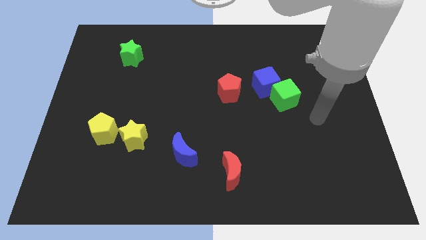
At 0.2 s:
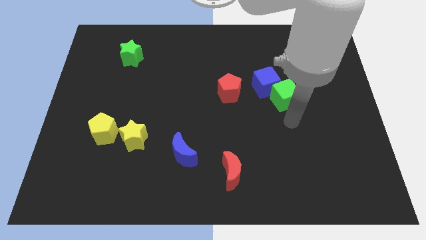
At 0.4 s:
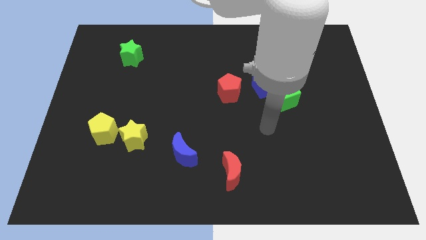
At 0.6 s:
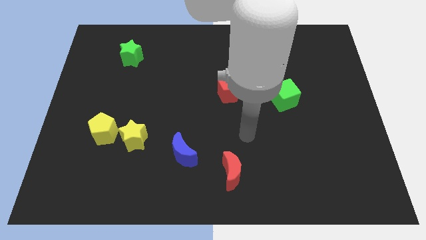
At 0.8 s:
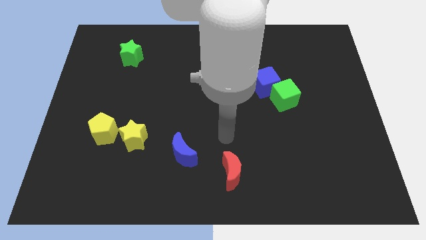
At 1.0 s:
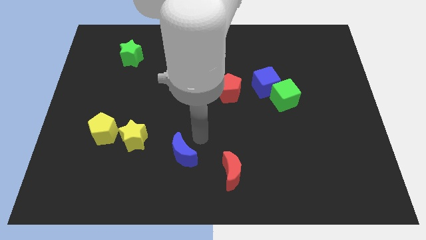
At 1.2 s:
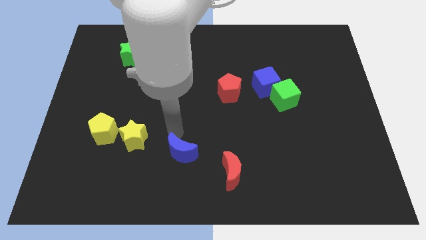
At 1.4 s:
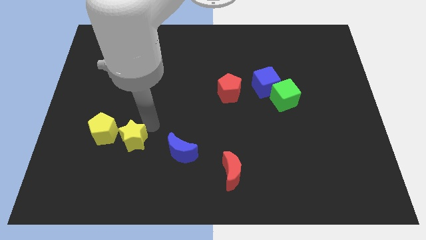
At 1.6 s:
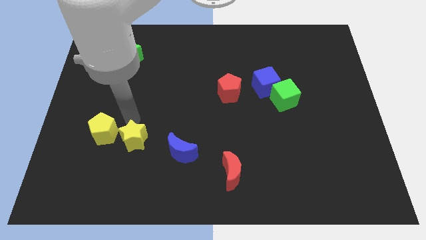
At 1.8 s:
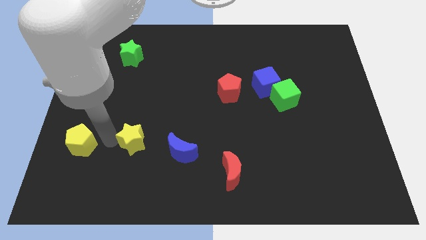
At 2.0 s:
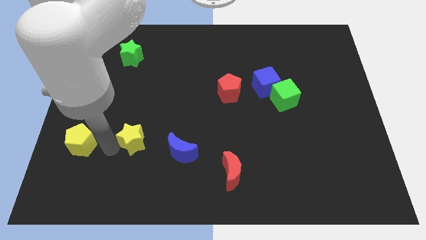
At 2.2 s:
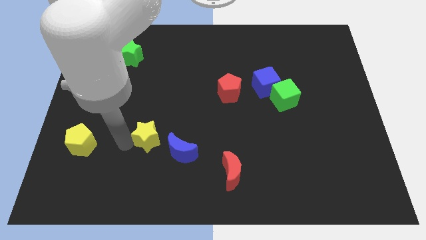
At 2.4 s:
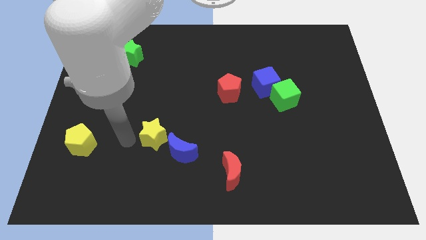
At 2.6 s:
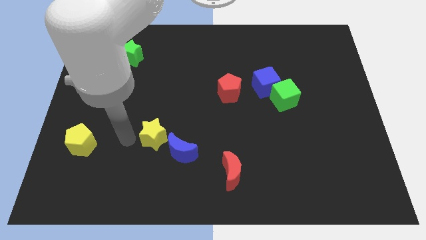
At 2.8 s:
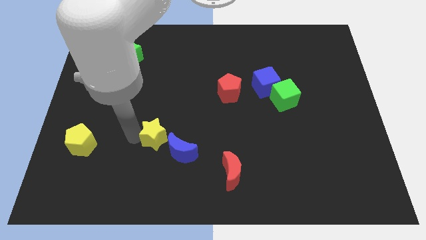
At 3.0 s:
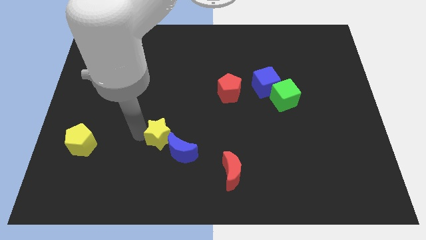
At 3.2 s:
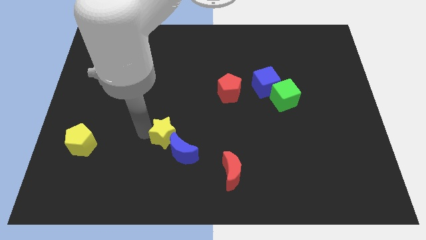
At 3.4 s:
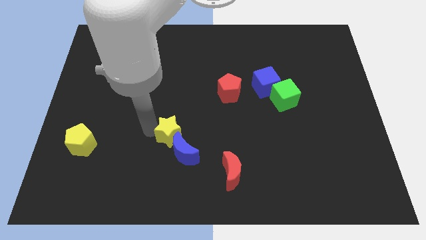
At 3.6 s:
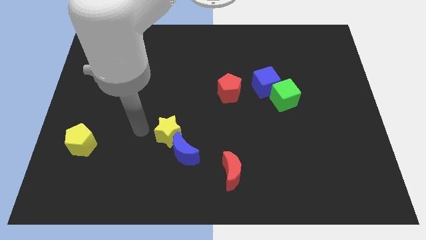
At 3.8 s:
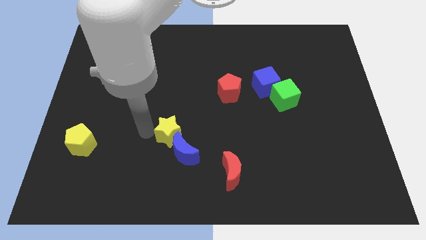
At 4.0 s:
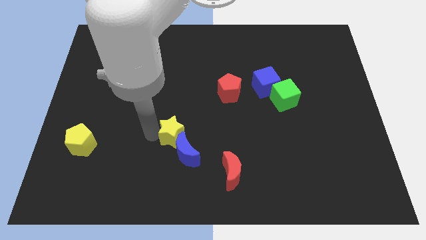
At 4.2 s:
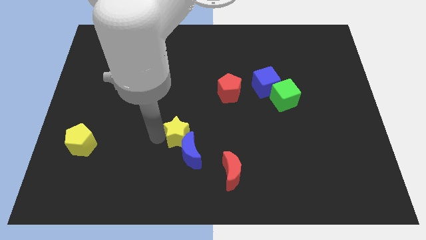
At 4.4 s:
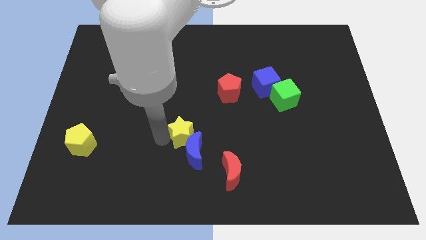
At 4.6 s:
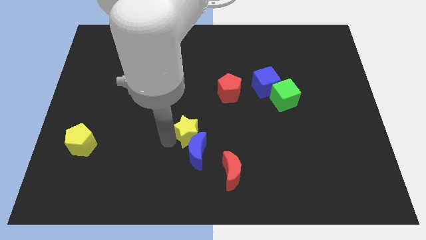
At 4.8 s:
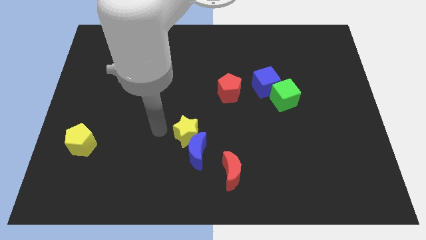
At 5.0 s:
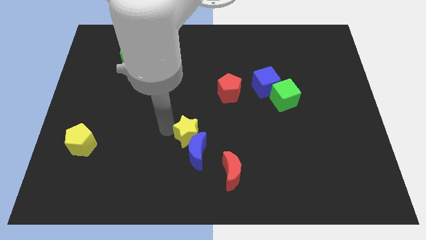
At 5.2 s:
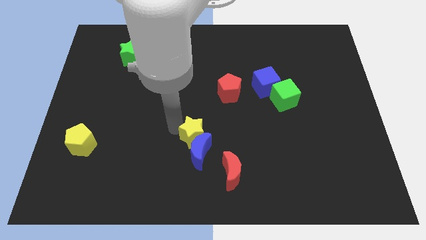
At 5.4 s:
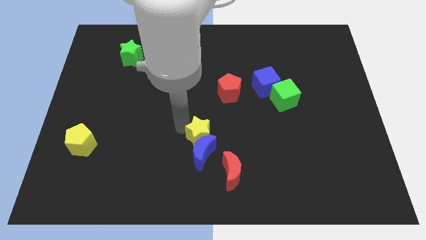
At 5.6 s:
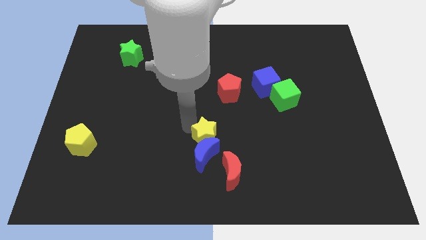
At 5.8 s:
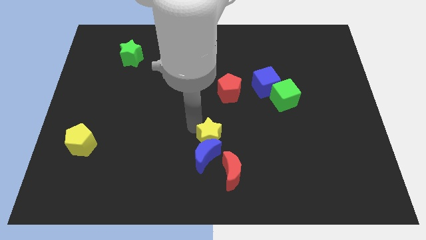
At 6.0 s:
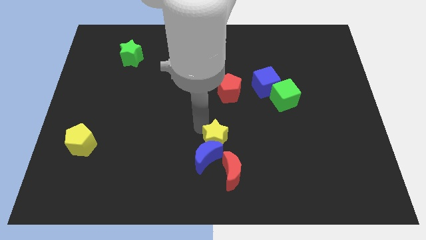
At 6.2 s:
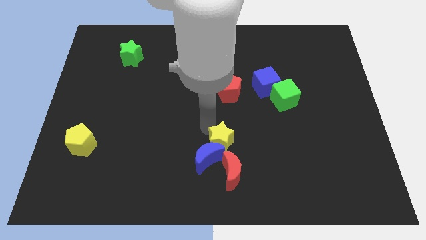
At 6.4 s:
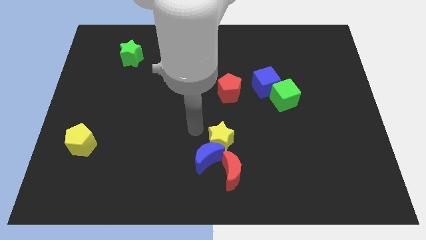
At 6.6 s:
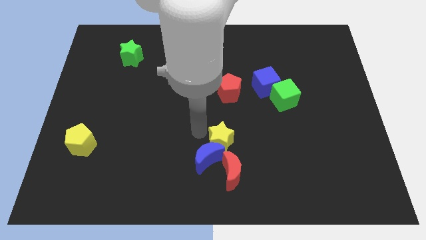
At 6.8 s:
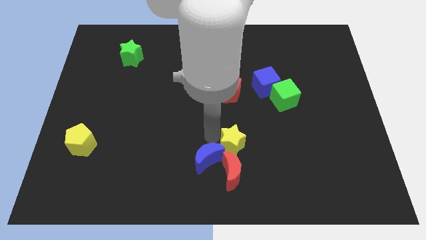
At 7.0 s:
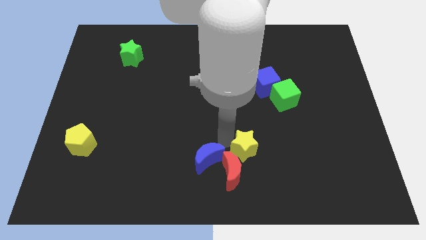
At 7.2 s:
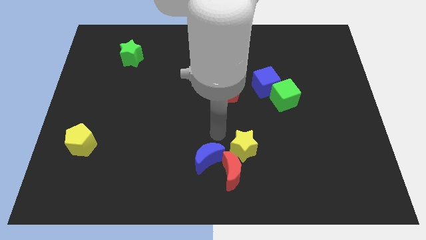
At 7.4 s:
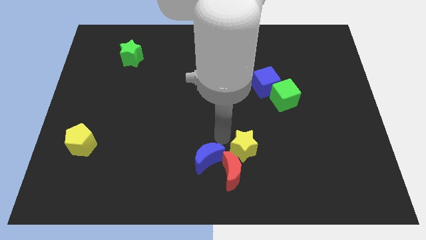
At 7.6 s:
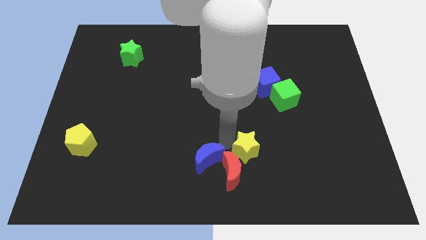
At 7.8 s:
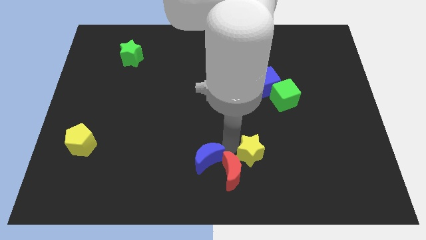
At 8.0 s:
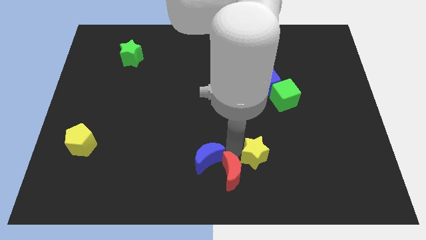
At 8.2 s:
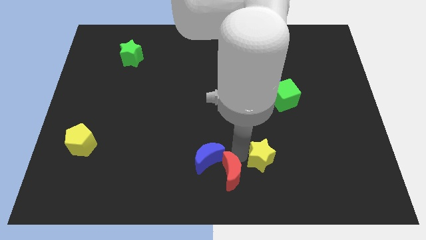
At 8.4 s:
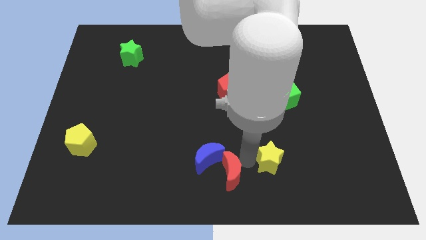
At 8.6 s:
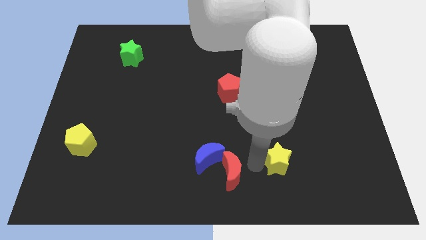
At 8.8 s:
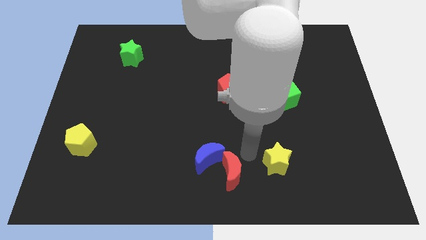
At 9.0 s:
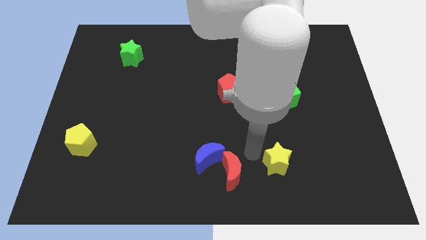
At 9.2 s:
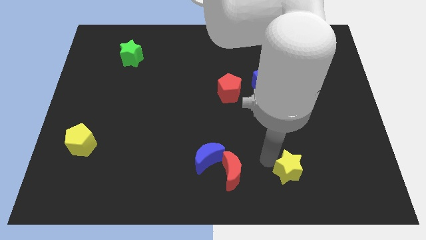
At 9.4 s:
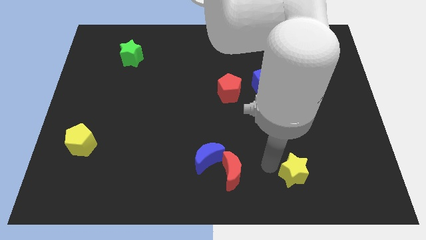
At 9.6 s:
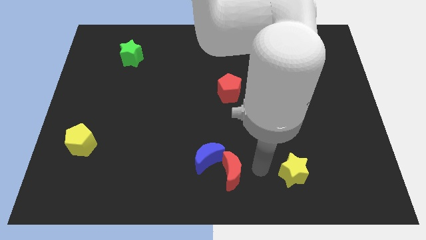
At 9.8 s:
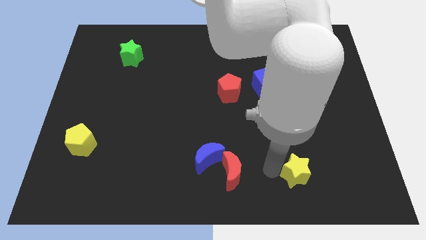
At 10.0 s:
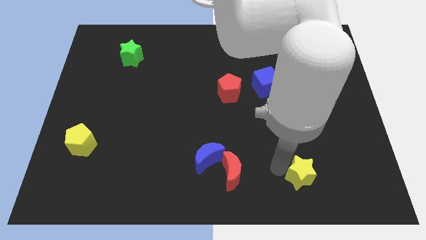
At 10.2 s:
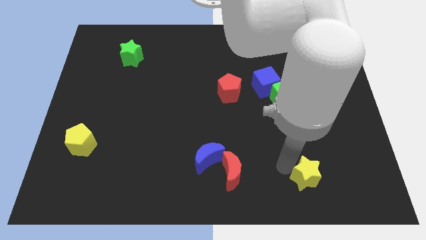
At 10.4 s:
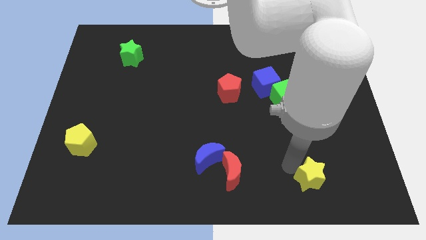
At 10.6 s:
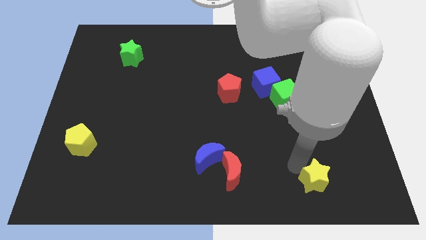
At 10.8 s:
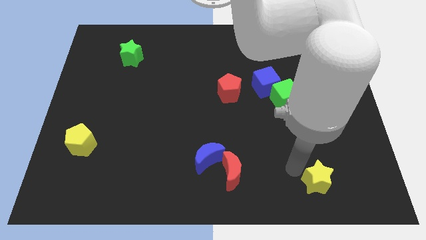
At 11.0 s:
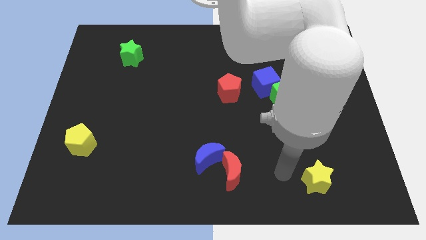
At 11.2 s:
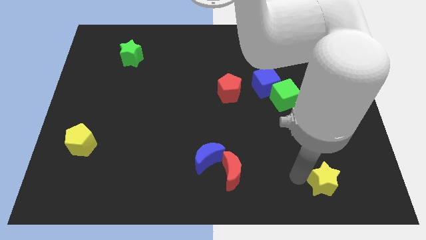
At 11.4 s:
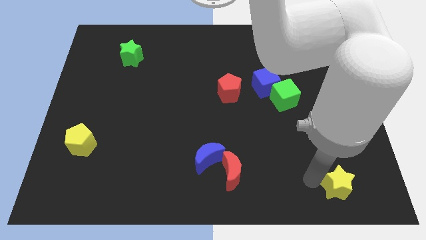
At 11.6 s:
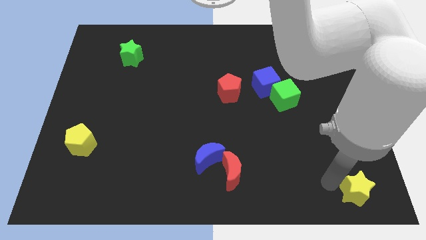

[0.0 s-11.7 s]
put the yellow star to the lower right corner
